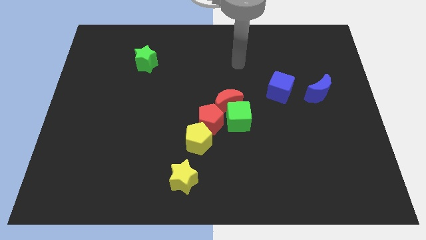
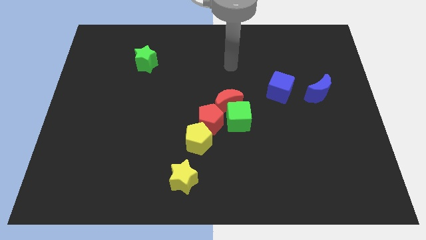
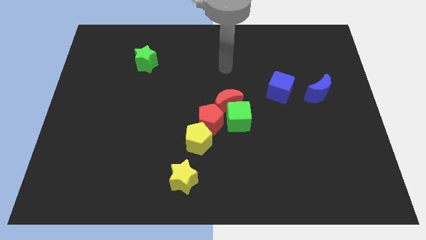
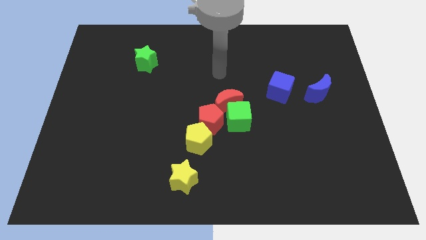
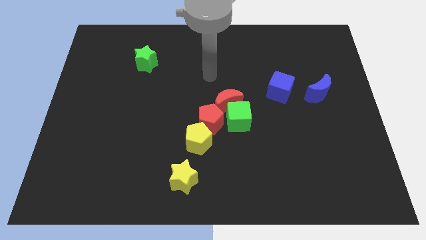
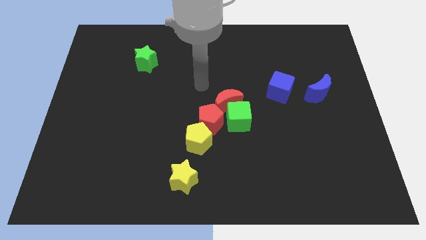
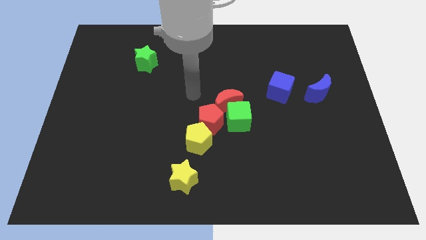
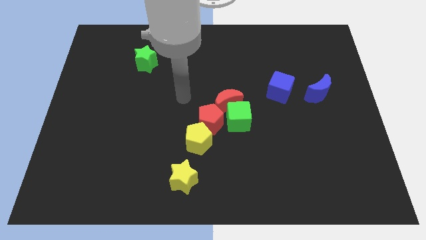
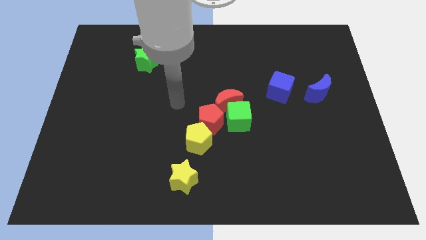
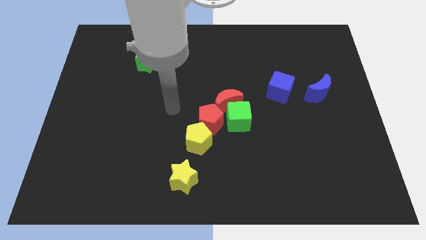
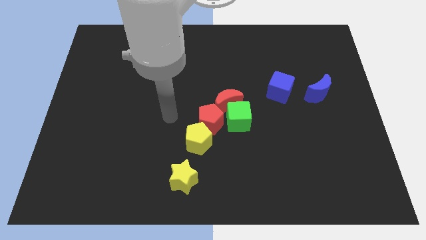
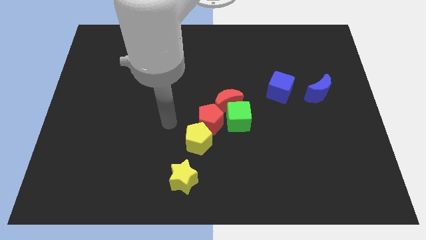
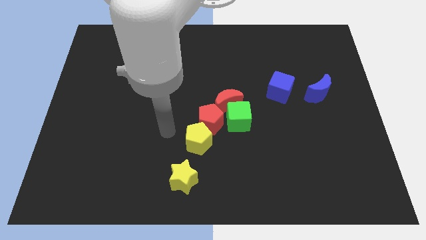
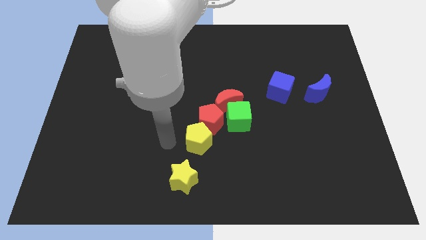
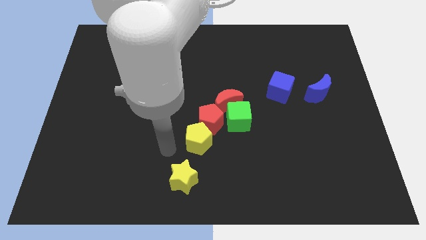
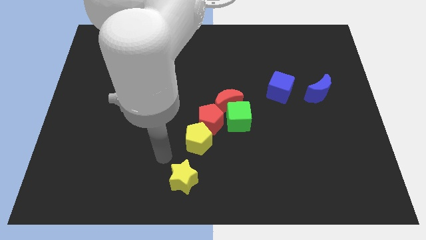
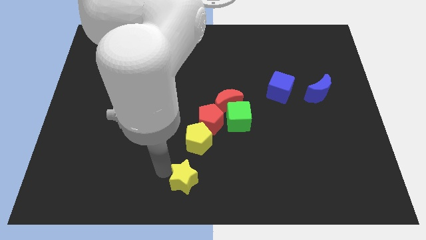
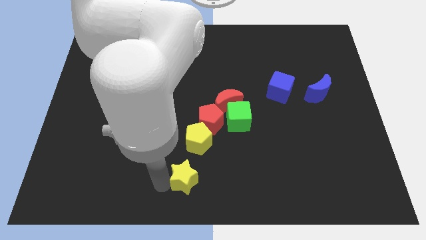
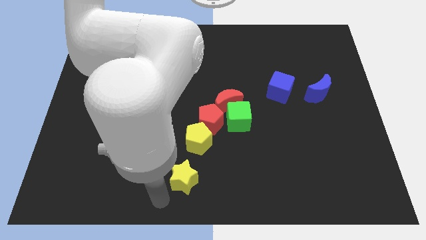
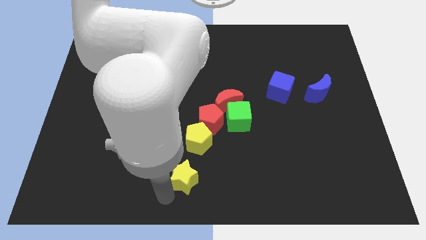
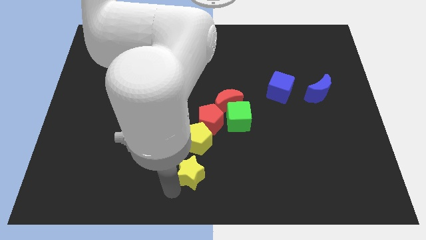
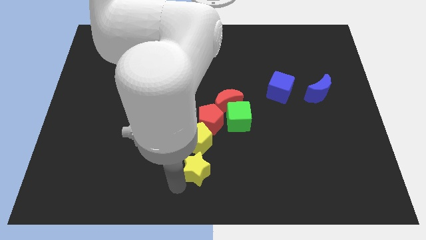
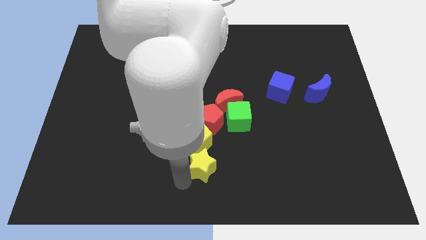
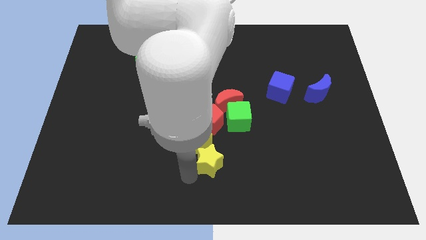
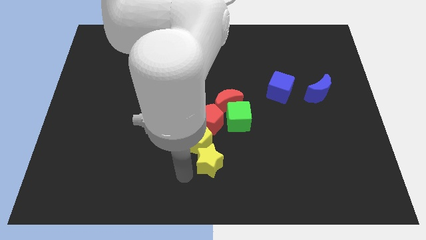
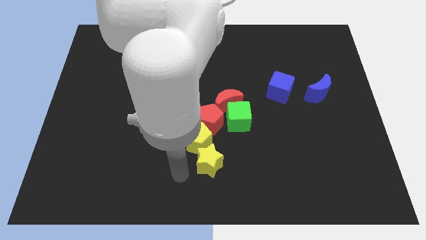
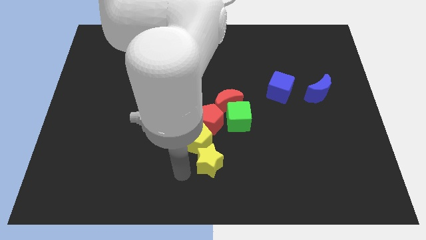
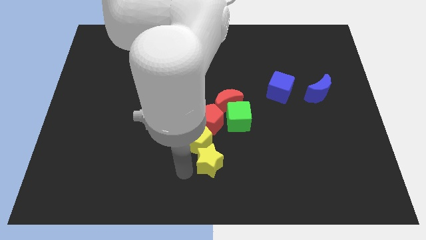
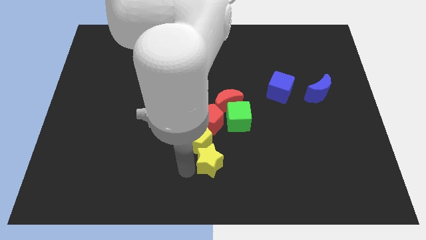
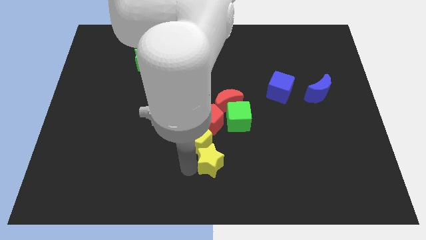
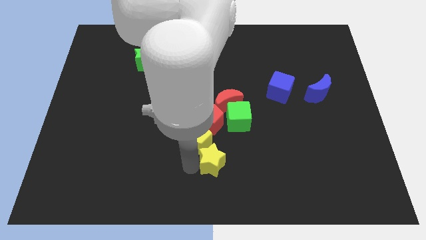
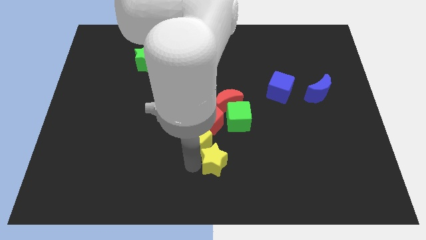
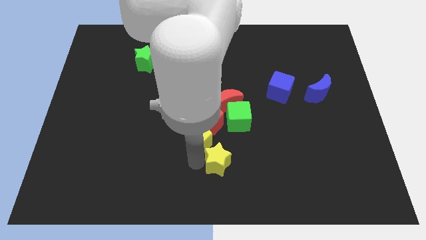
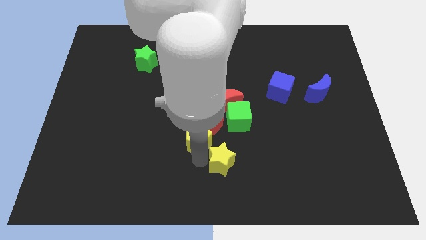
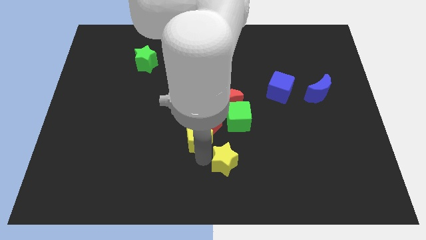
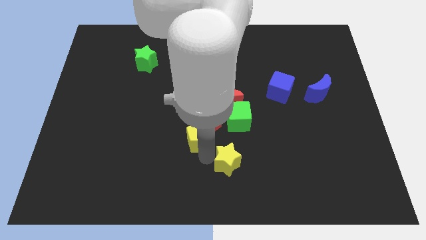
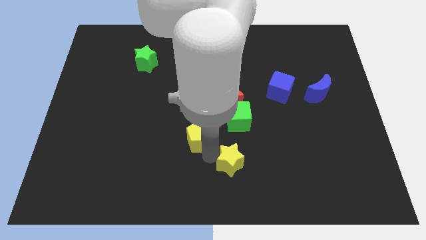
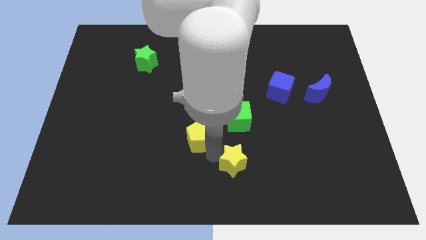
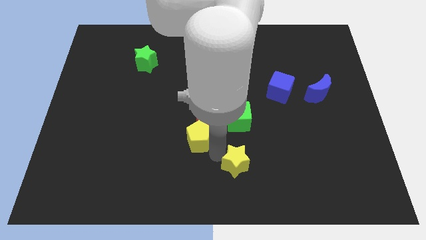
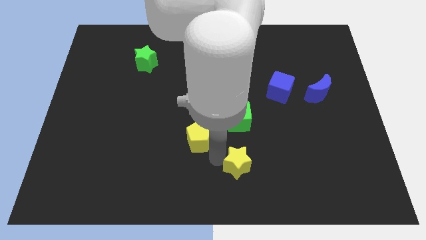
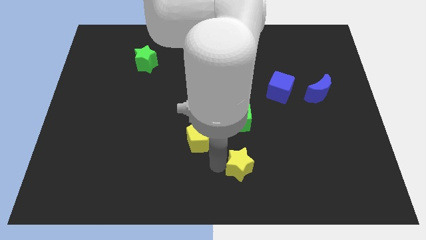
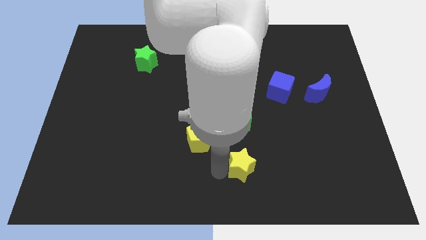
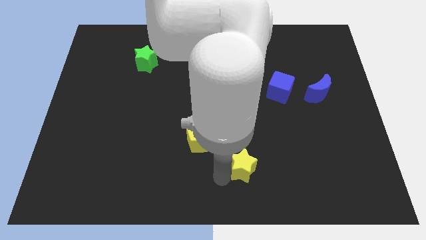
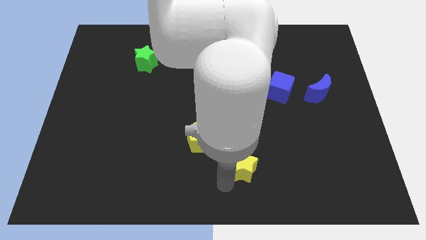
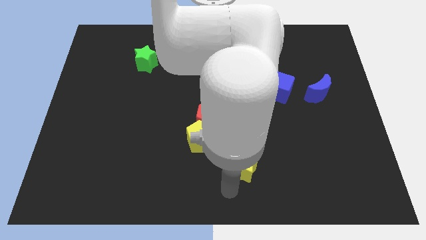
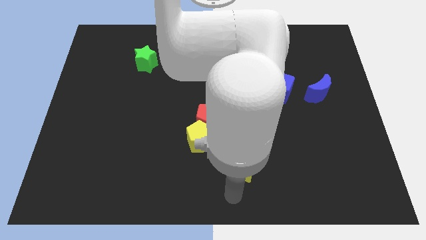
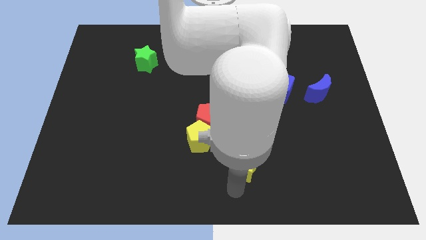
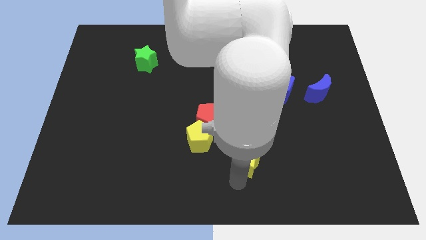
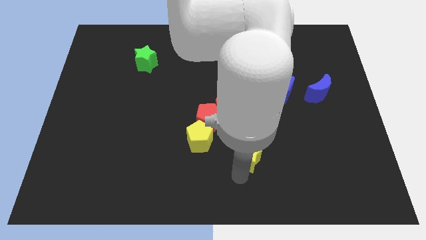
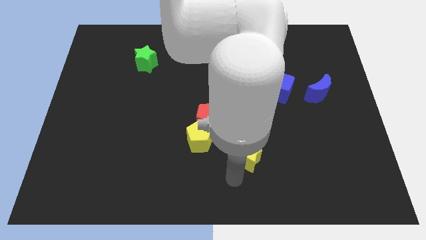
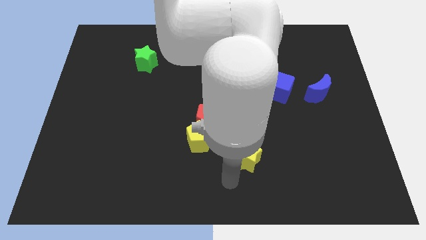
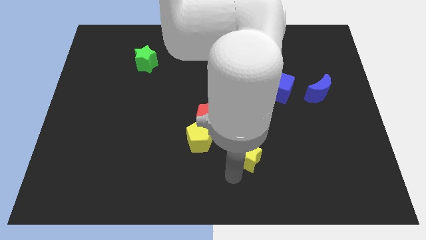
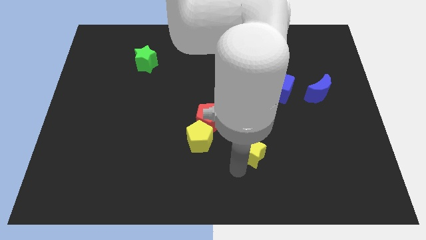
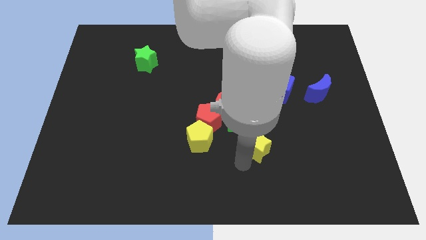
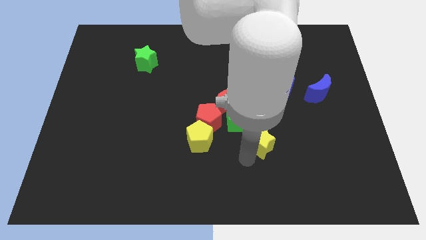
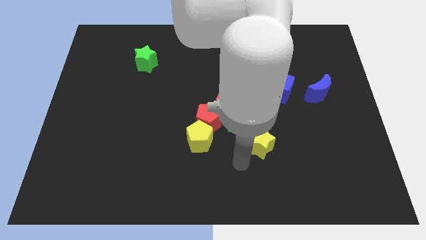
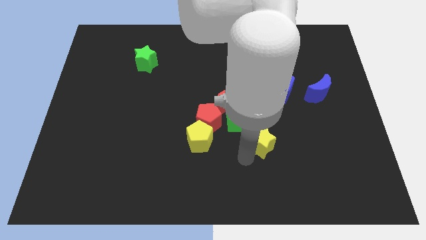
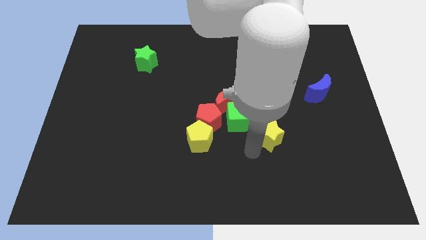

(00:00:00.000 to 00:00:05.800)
put the yellow star right of the green cube

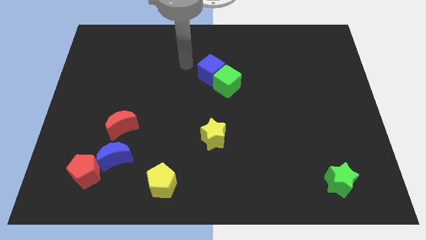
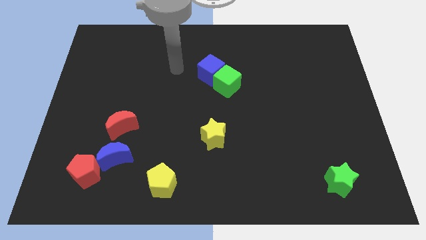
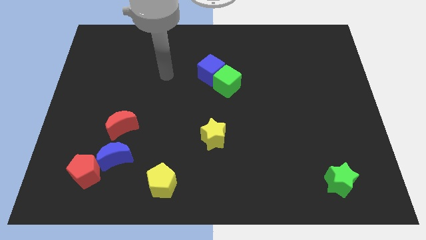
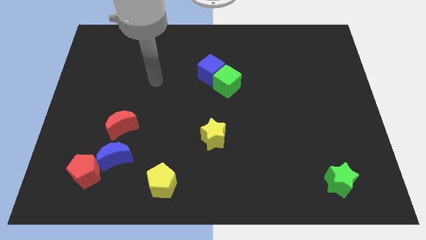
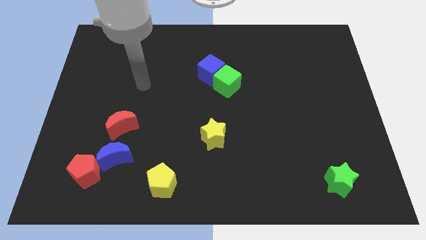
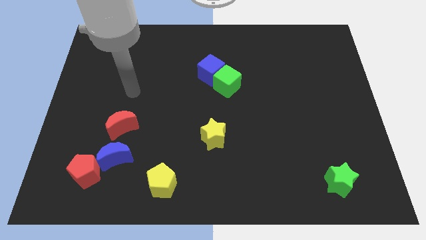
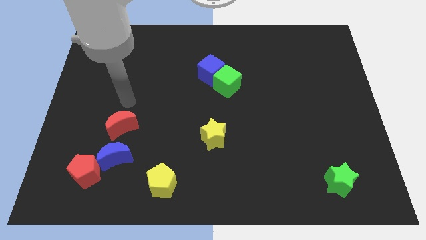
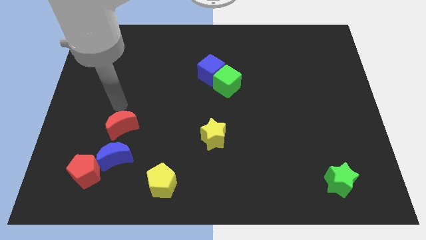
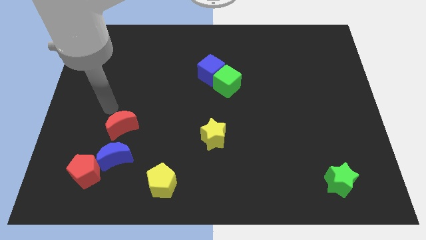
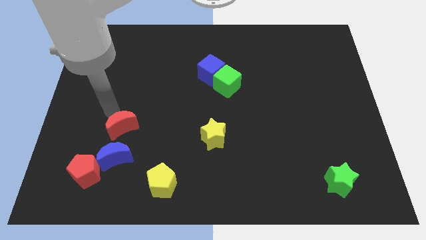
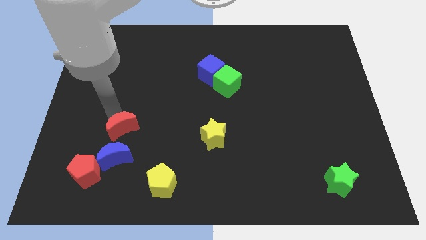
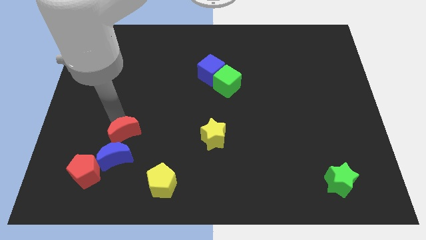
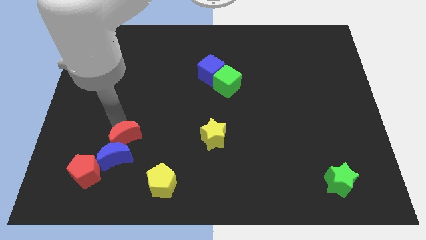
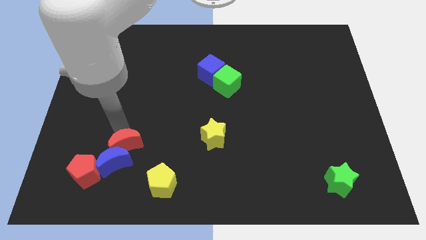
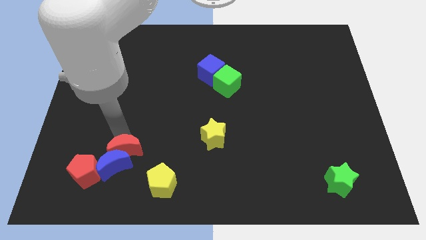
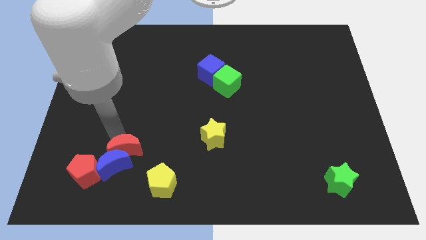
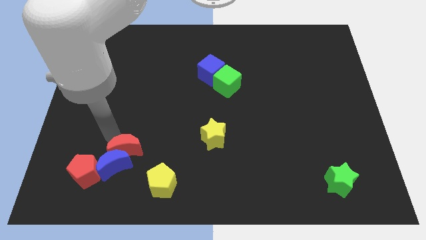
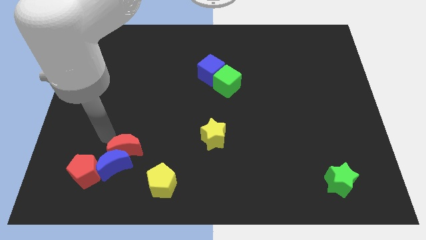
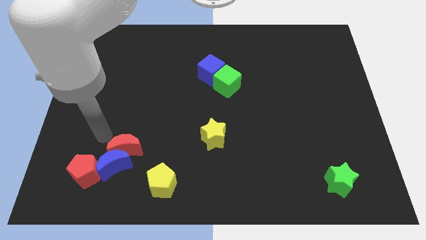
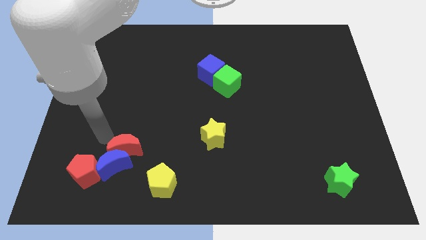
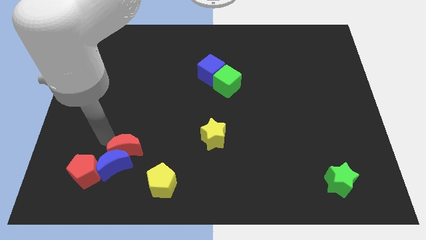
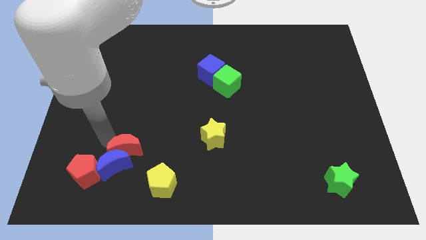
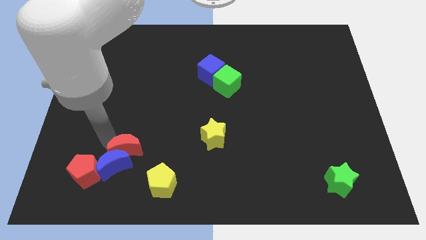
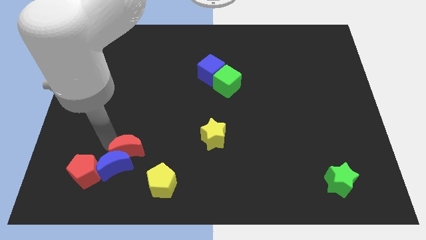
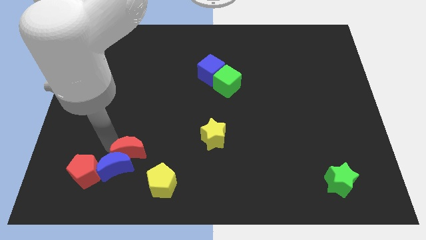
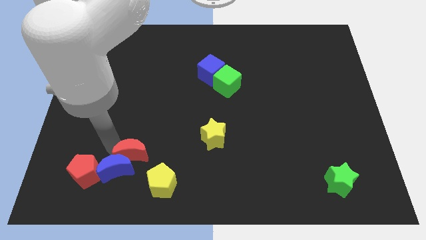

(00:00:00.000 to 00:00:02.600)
move the red moon to the right side of the red pentagon
